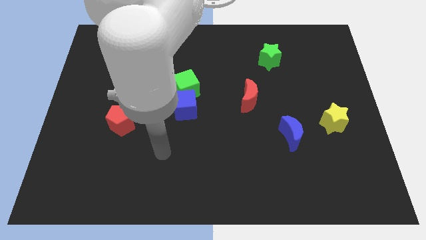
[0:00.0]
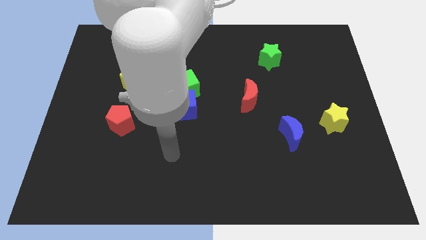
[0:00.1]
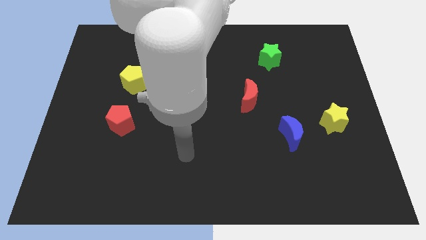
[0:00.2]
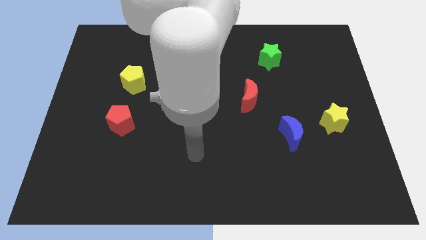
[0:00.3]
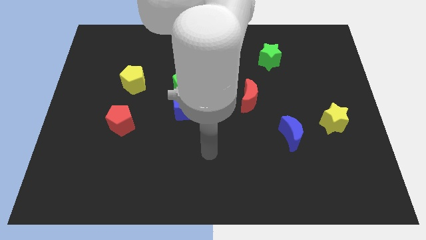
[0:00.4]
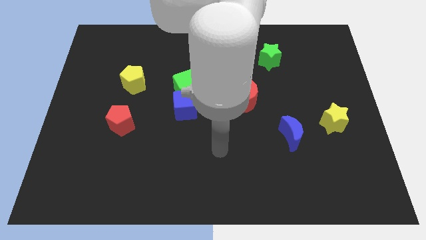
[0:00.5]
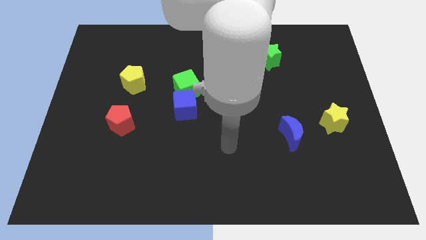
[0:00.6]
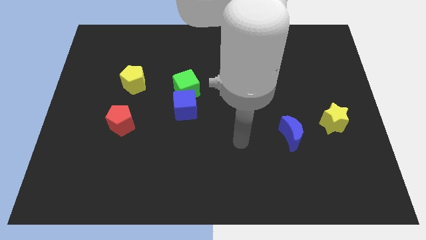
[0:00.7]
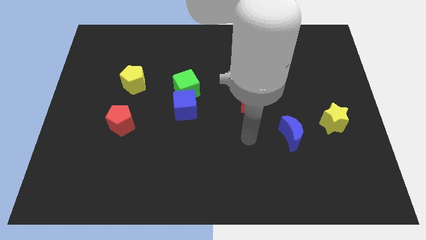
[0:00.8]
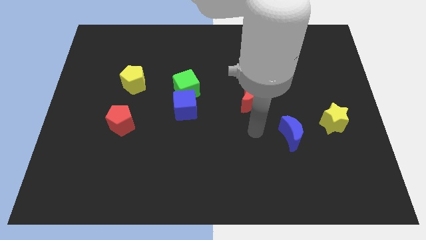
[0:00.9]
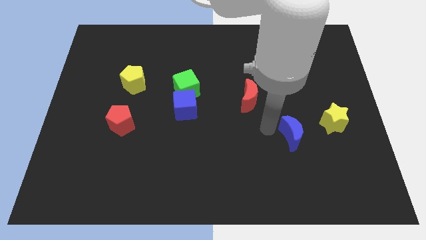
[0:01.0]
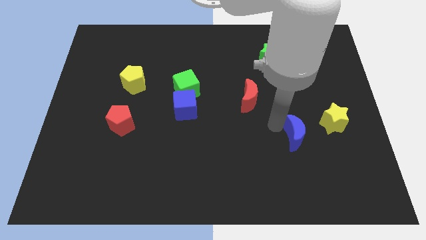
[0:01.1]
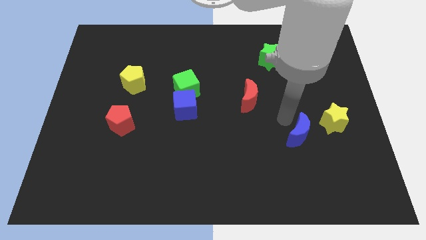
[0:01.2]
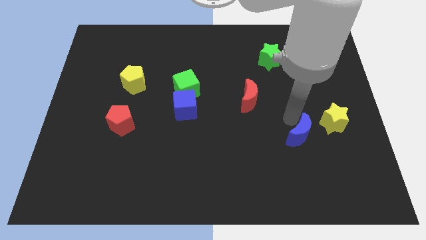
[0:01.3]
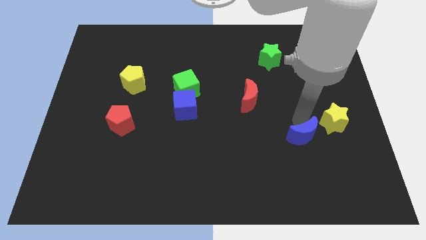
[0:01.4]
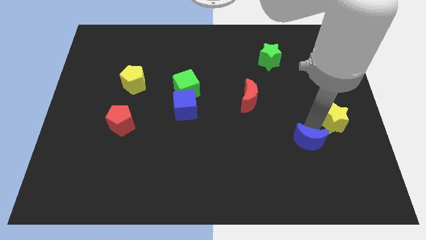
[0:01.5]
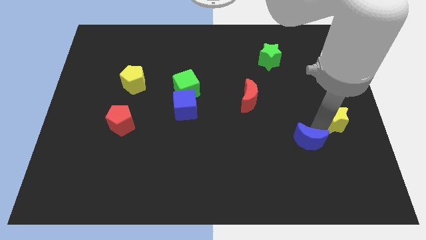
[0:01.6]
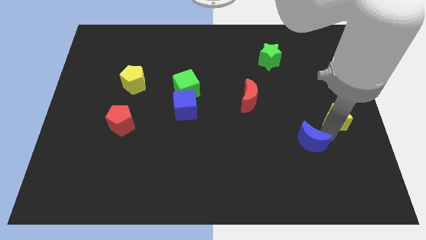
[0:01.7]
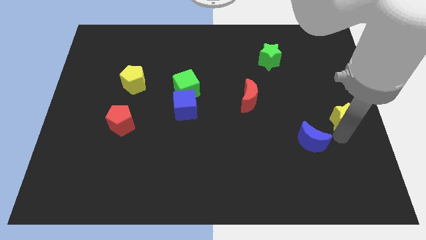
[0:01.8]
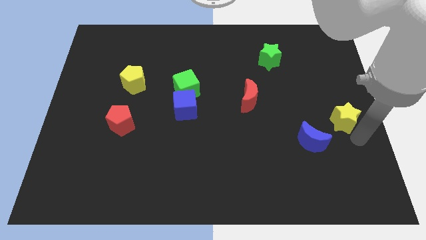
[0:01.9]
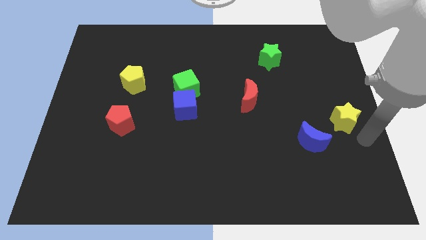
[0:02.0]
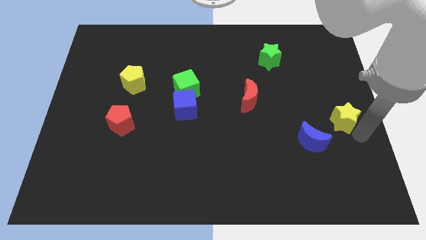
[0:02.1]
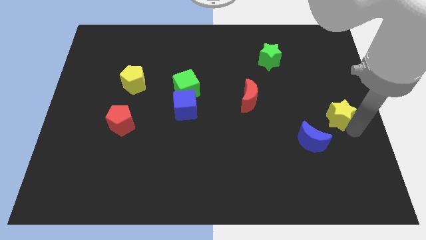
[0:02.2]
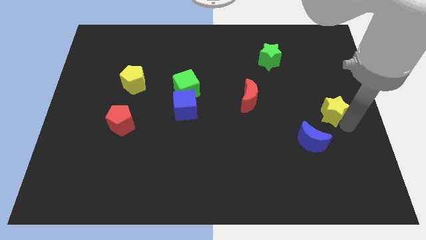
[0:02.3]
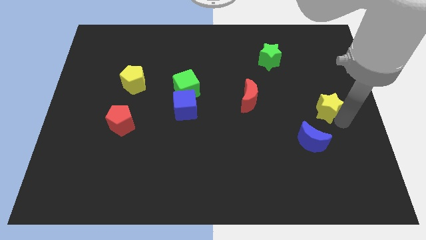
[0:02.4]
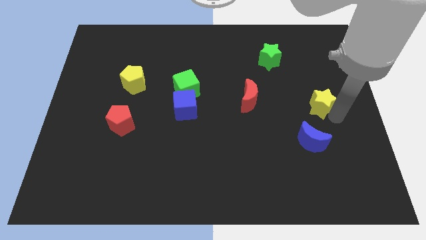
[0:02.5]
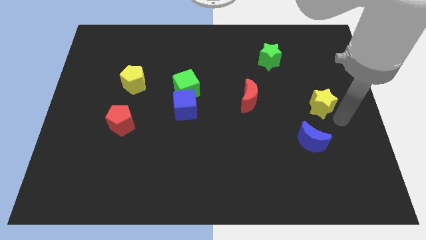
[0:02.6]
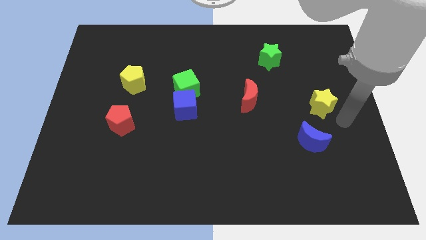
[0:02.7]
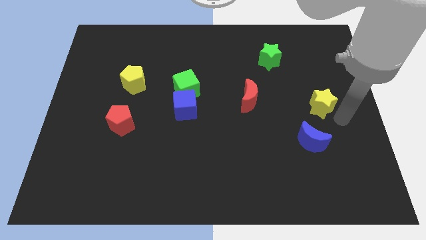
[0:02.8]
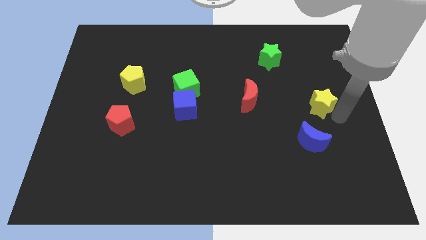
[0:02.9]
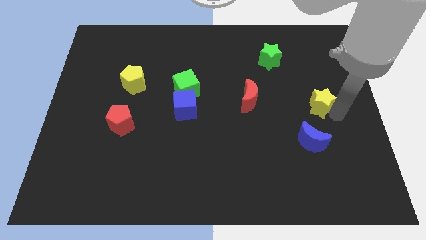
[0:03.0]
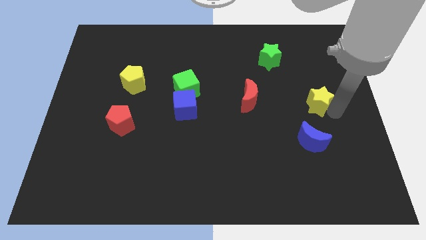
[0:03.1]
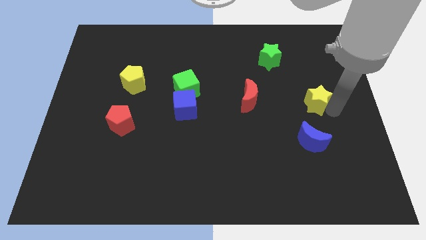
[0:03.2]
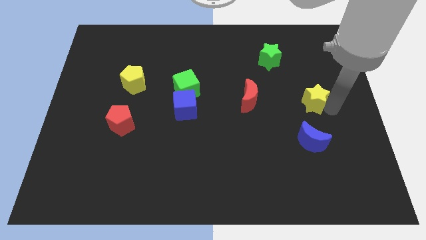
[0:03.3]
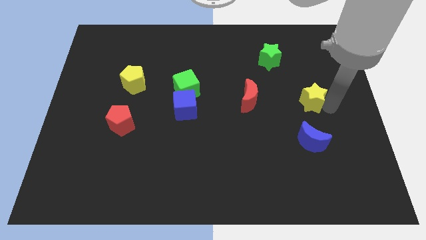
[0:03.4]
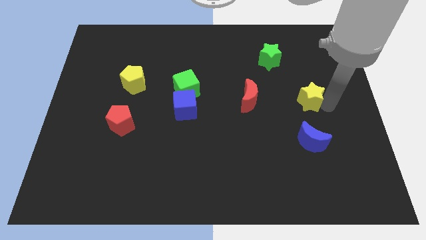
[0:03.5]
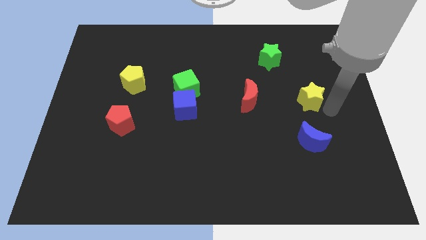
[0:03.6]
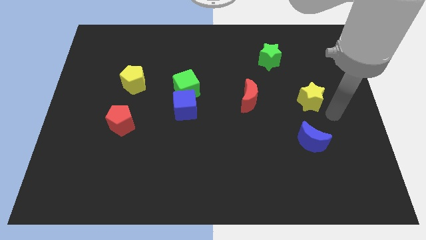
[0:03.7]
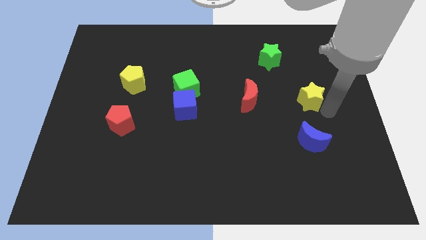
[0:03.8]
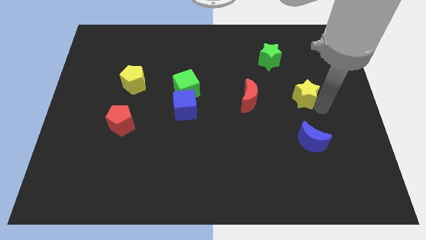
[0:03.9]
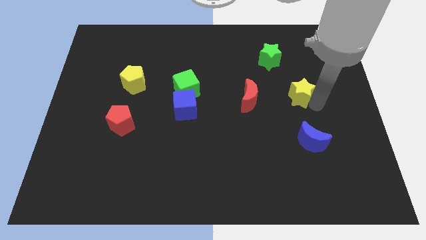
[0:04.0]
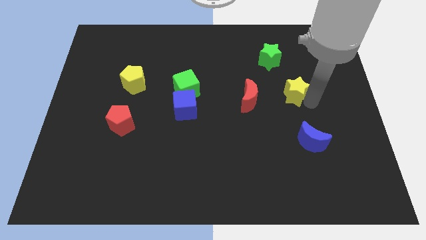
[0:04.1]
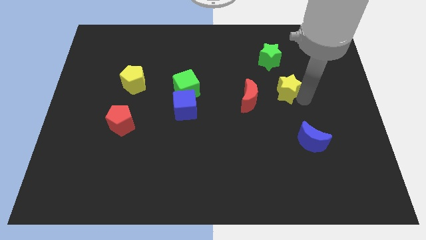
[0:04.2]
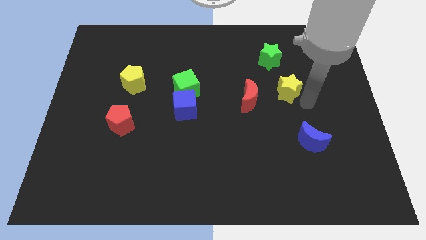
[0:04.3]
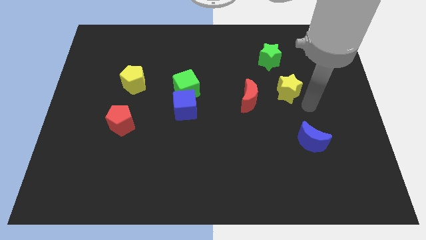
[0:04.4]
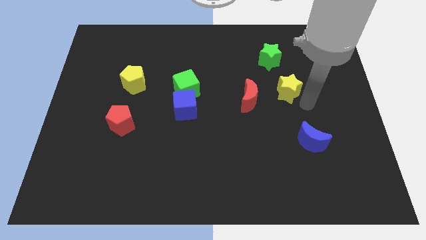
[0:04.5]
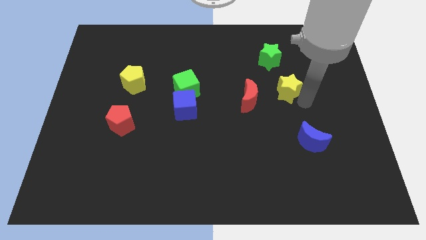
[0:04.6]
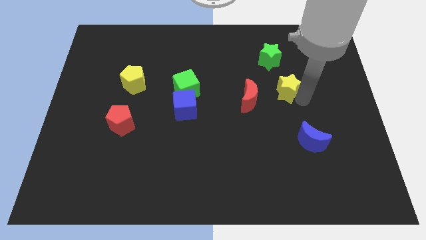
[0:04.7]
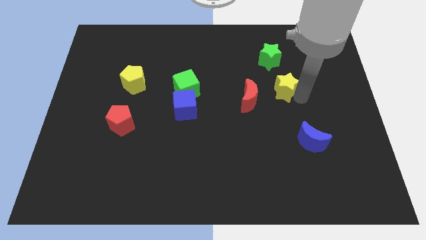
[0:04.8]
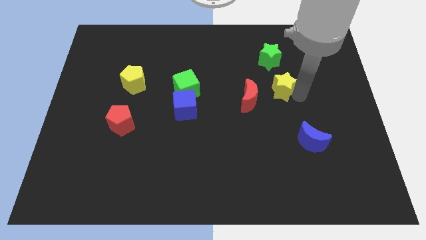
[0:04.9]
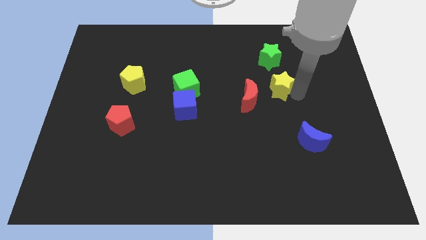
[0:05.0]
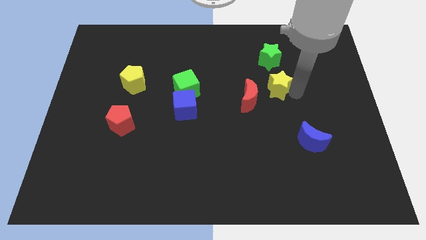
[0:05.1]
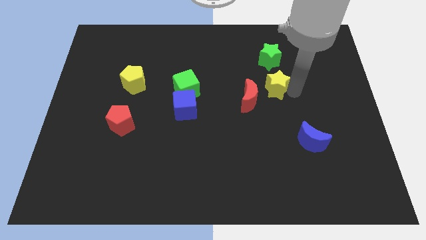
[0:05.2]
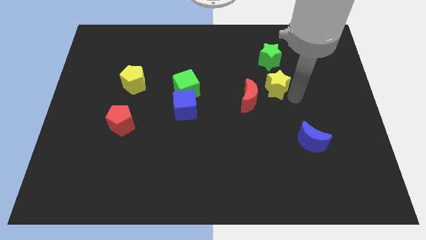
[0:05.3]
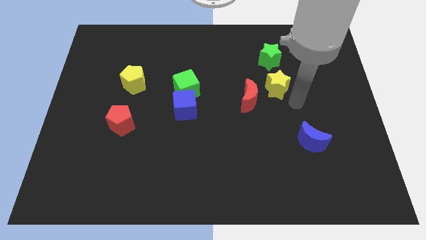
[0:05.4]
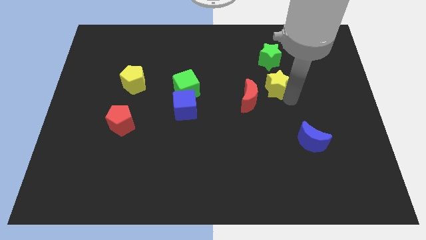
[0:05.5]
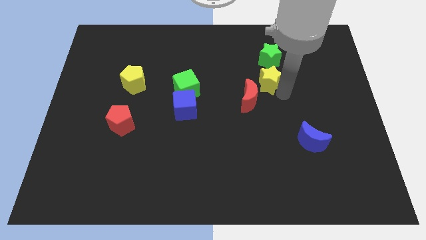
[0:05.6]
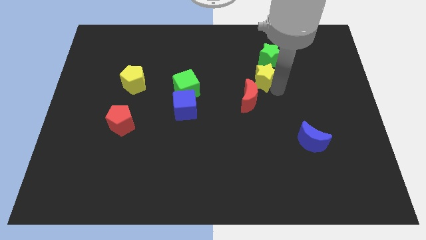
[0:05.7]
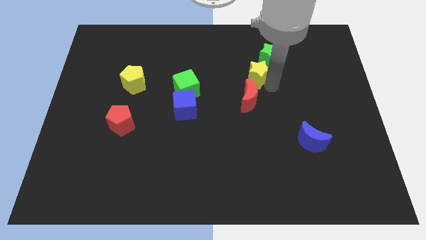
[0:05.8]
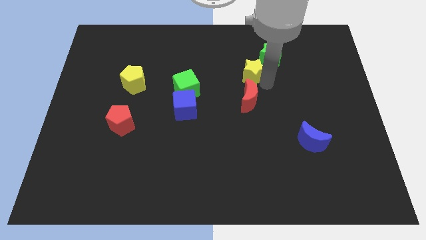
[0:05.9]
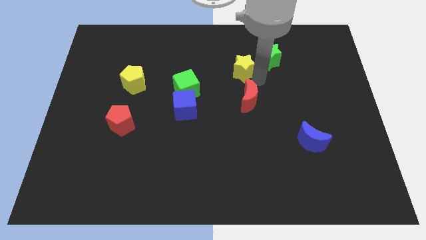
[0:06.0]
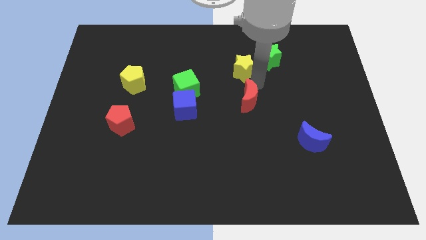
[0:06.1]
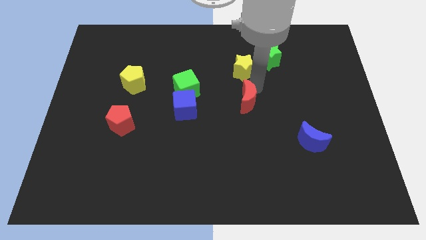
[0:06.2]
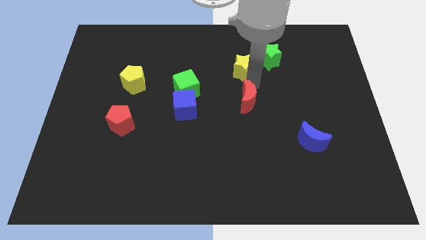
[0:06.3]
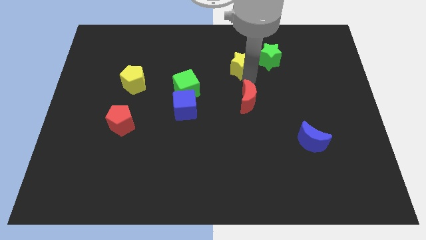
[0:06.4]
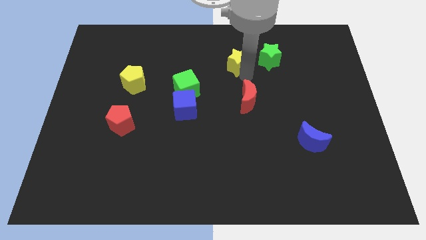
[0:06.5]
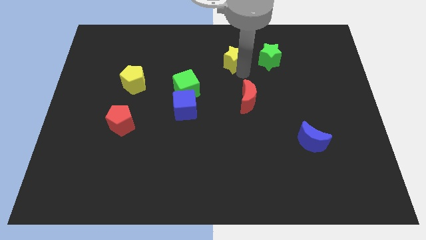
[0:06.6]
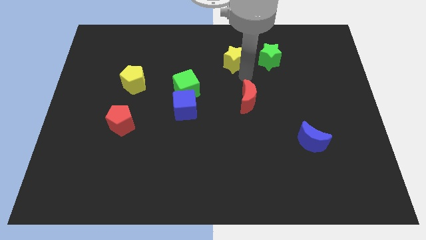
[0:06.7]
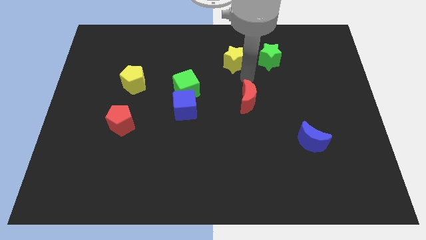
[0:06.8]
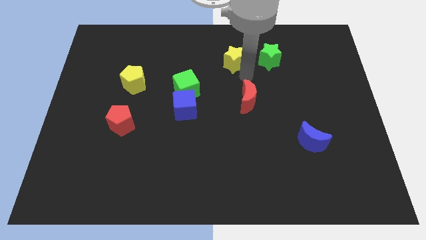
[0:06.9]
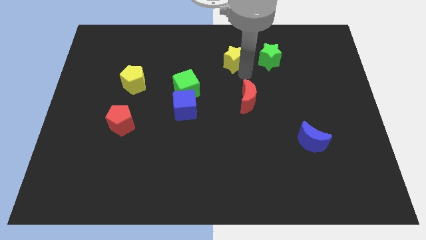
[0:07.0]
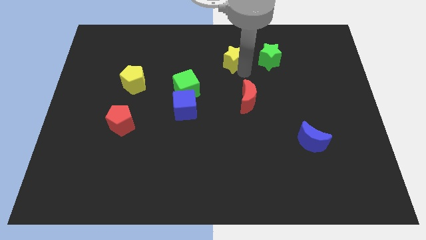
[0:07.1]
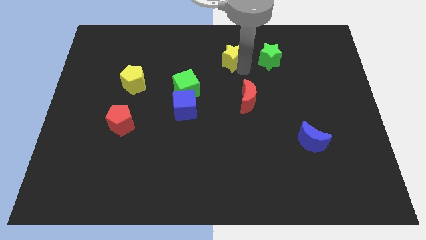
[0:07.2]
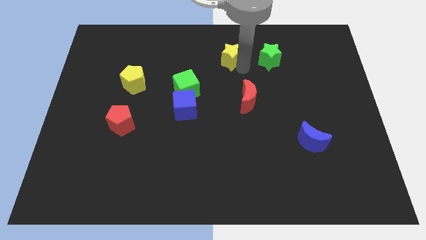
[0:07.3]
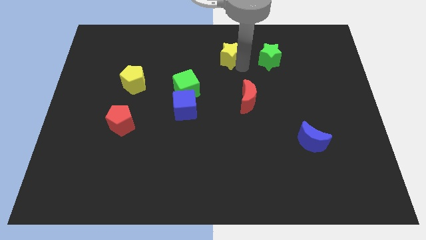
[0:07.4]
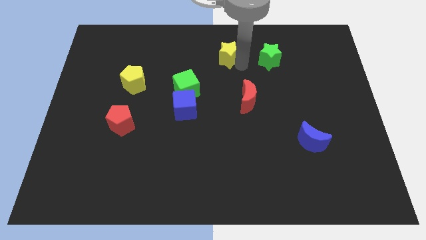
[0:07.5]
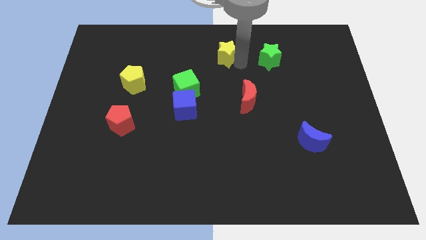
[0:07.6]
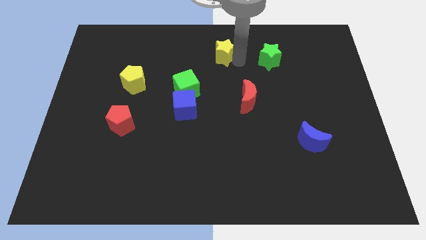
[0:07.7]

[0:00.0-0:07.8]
move the yellow star to the top
